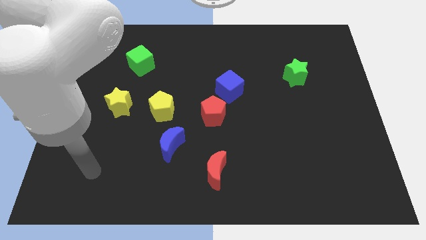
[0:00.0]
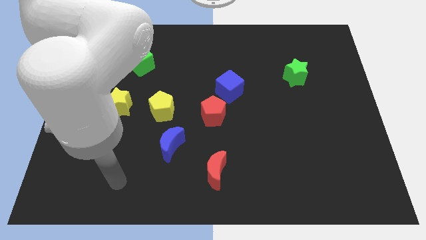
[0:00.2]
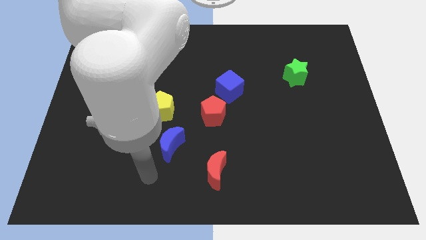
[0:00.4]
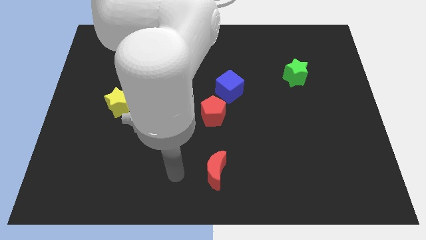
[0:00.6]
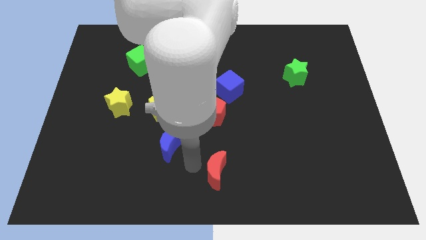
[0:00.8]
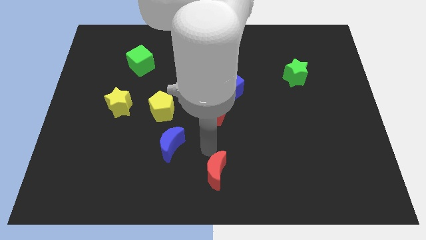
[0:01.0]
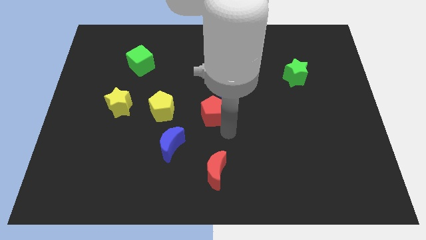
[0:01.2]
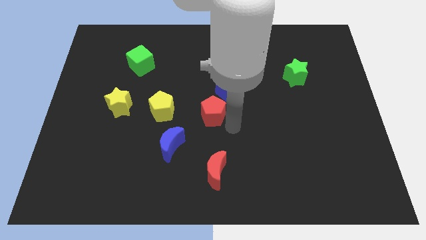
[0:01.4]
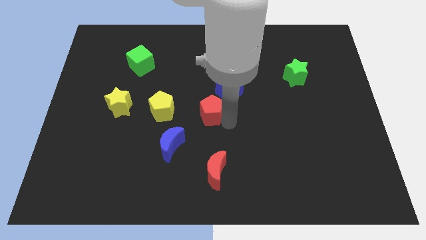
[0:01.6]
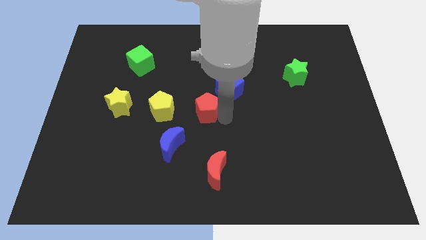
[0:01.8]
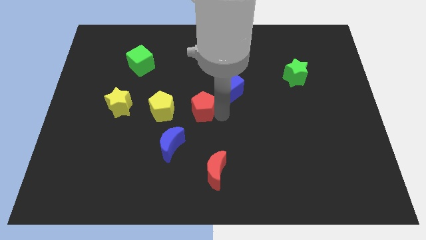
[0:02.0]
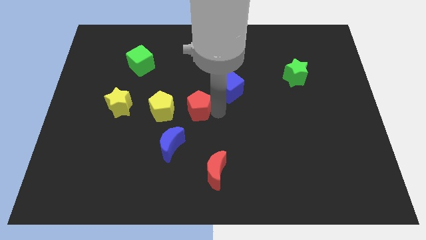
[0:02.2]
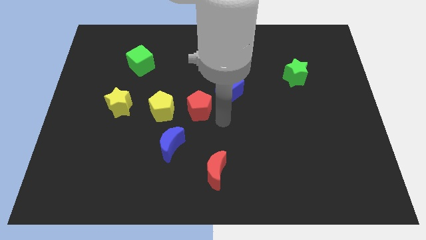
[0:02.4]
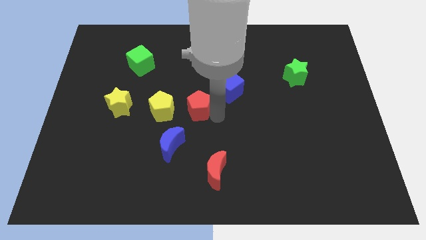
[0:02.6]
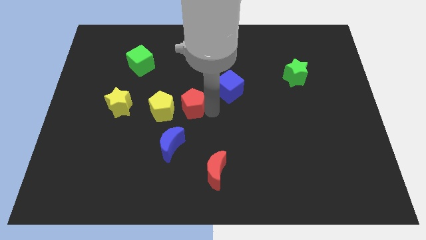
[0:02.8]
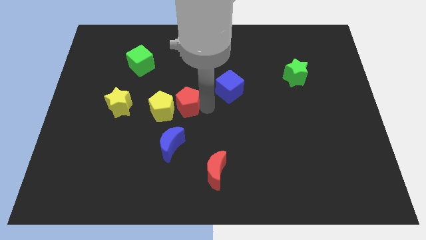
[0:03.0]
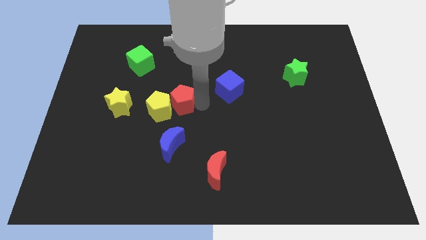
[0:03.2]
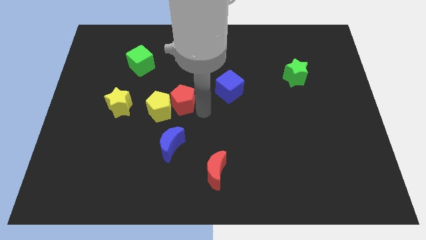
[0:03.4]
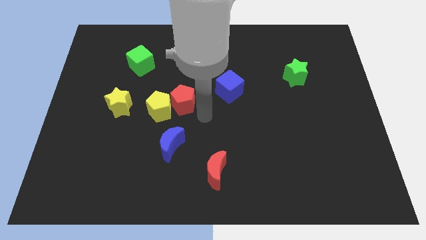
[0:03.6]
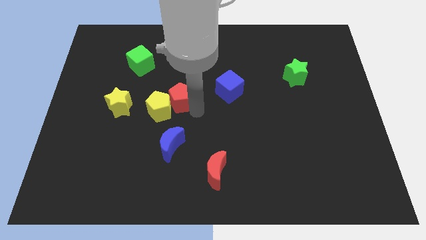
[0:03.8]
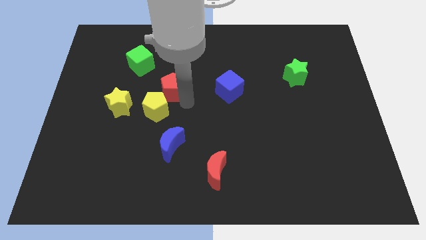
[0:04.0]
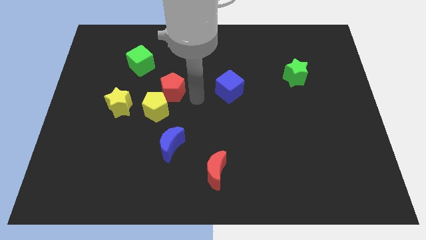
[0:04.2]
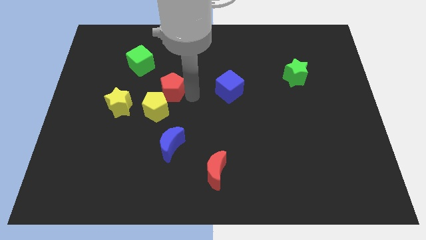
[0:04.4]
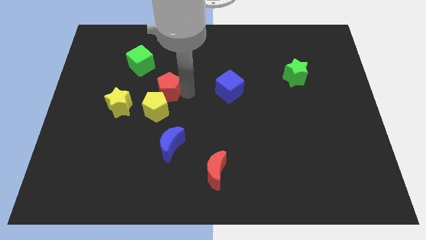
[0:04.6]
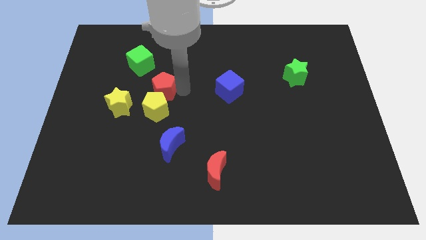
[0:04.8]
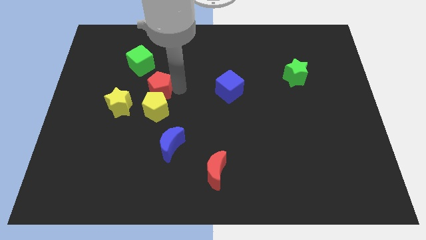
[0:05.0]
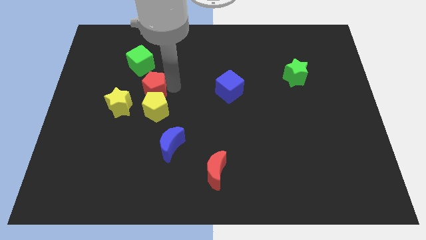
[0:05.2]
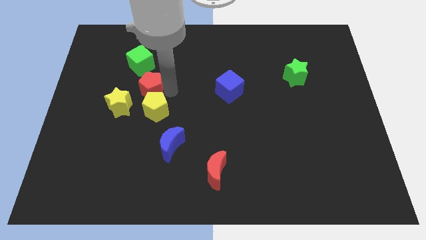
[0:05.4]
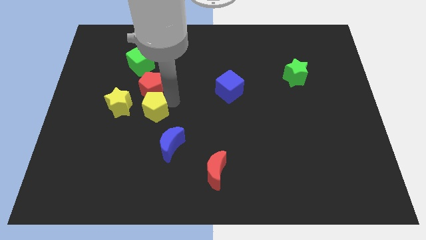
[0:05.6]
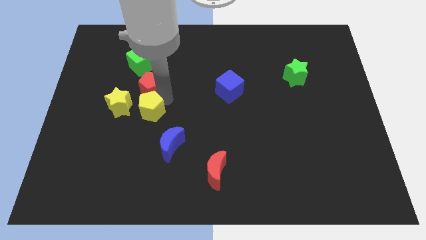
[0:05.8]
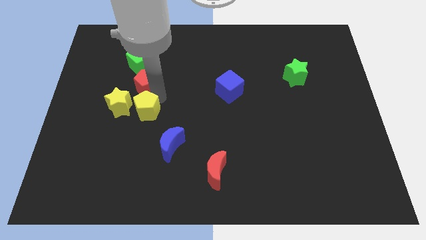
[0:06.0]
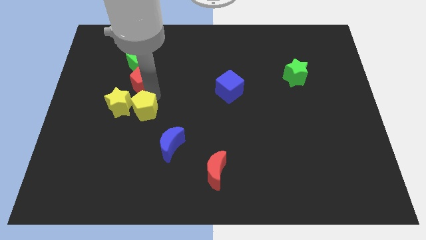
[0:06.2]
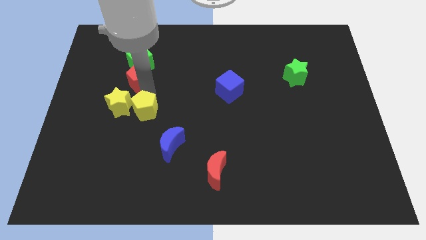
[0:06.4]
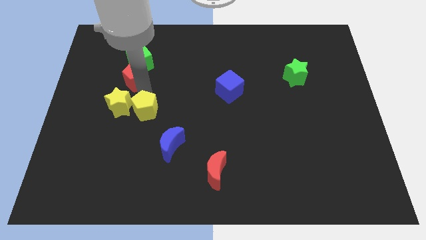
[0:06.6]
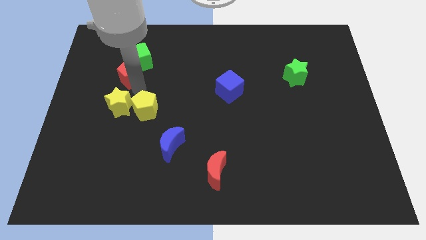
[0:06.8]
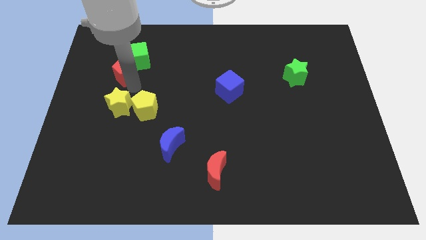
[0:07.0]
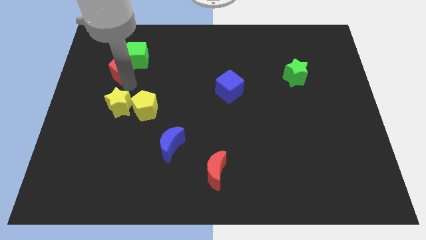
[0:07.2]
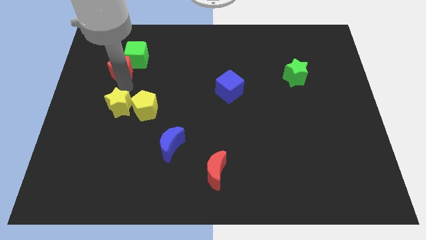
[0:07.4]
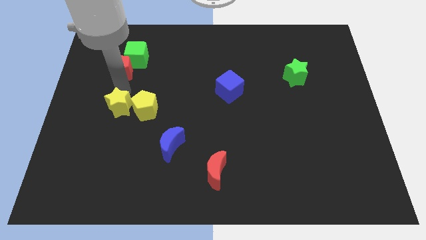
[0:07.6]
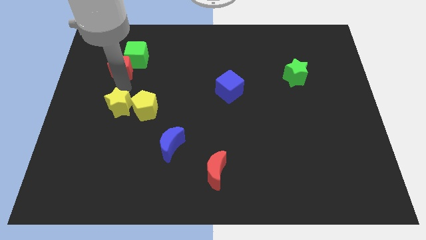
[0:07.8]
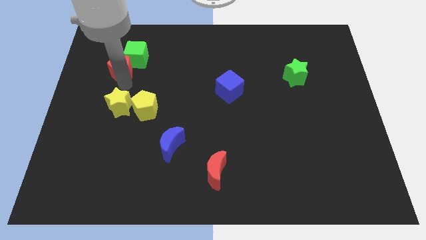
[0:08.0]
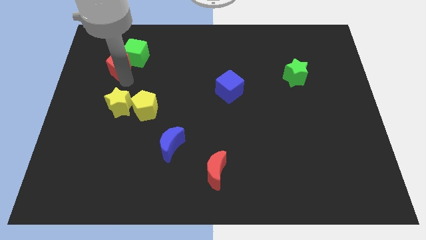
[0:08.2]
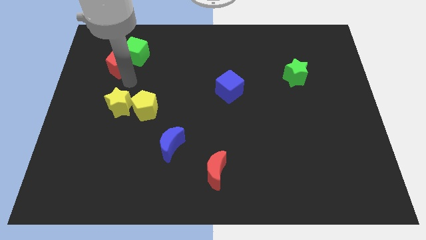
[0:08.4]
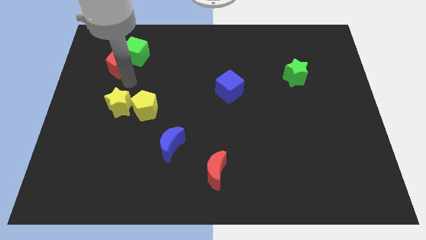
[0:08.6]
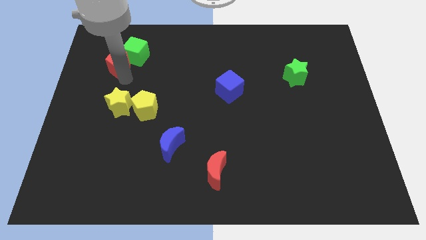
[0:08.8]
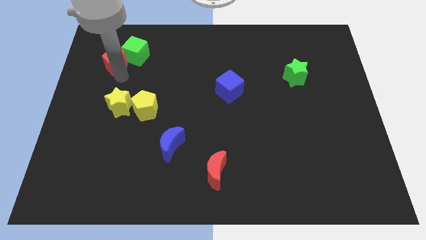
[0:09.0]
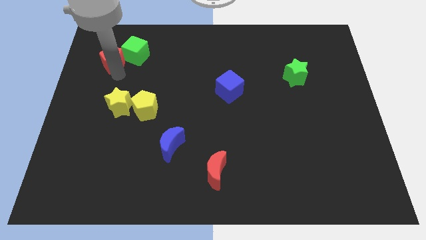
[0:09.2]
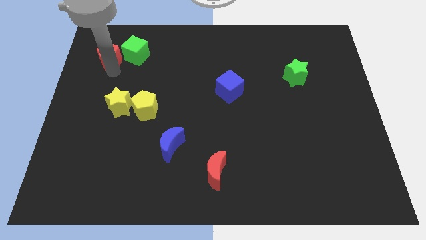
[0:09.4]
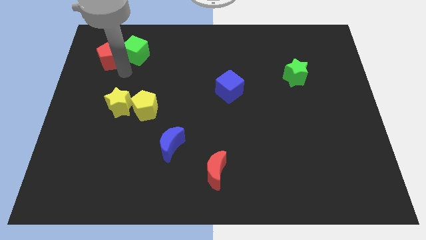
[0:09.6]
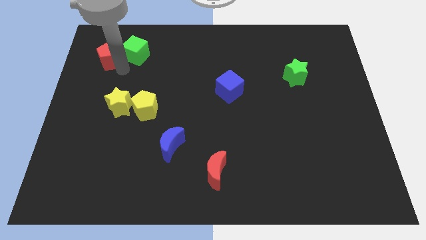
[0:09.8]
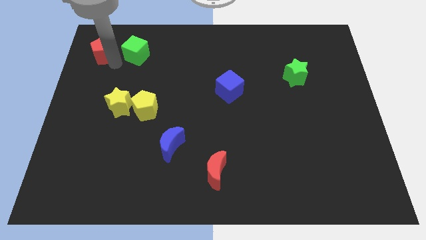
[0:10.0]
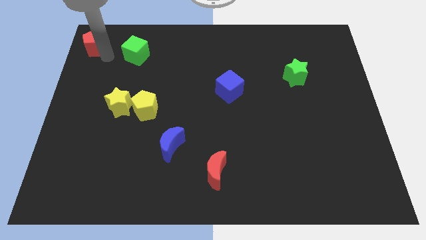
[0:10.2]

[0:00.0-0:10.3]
move the red pentagon to the top left of the board

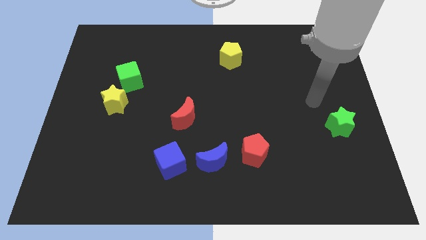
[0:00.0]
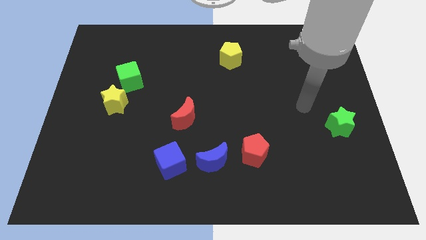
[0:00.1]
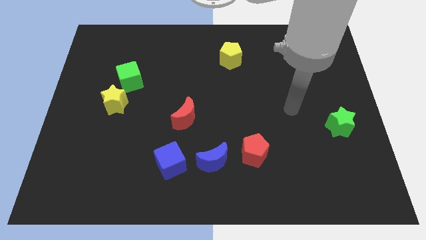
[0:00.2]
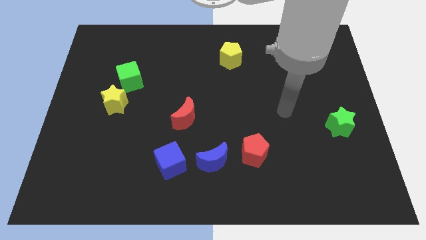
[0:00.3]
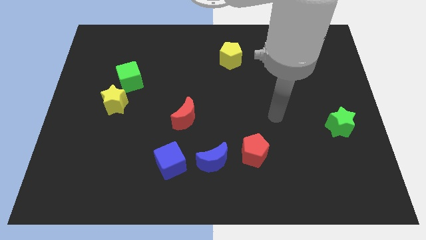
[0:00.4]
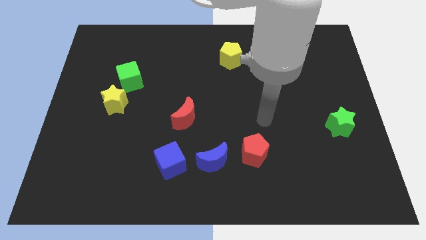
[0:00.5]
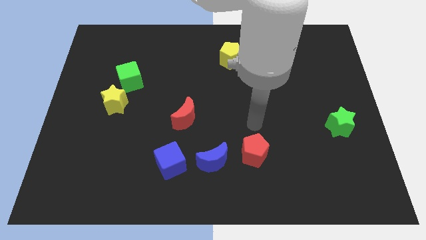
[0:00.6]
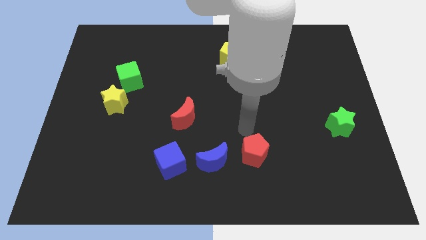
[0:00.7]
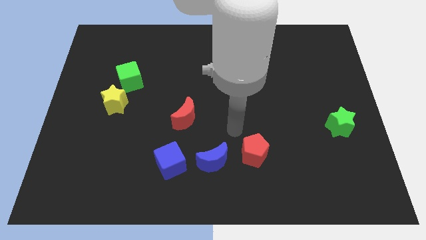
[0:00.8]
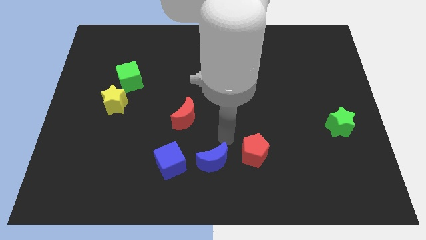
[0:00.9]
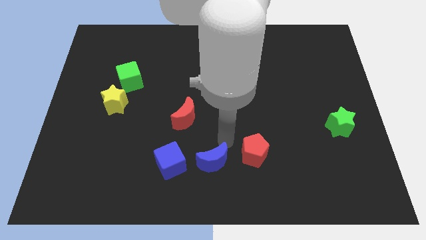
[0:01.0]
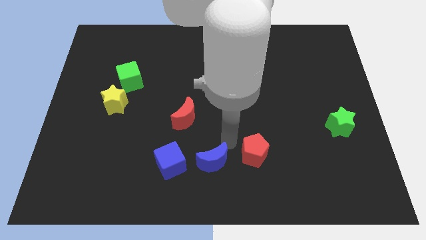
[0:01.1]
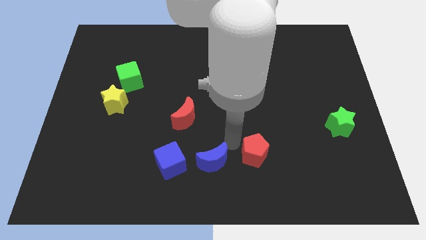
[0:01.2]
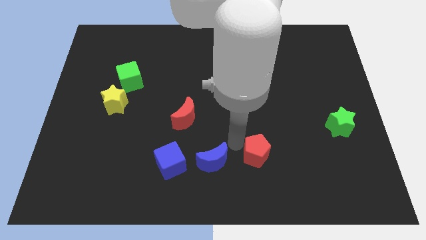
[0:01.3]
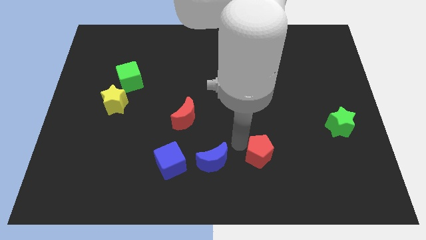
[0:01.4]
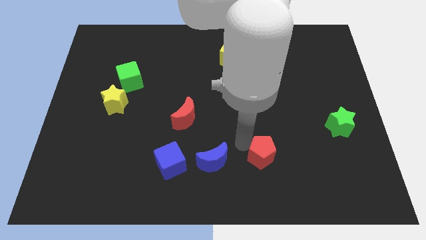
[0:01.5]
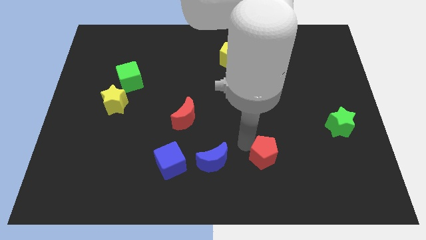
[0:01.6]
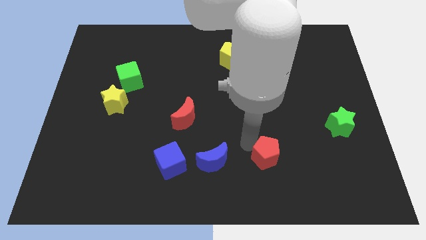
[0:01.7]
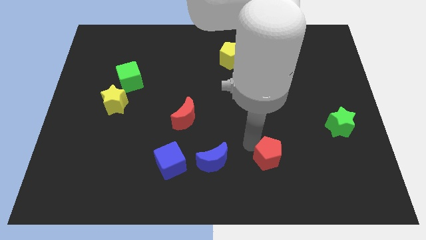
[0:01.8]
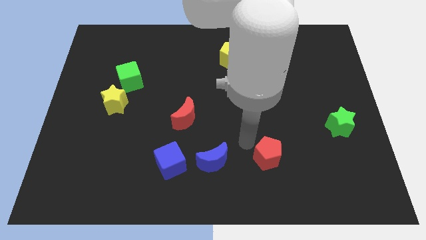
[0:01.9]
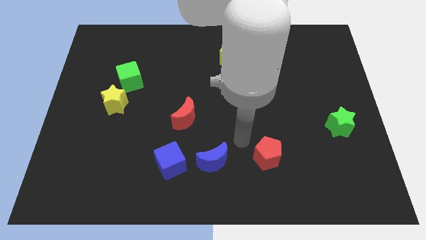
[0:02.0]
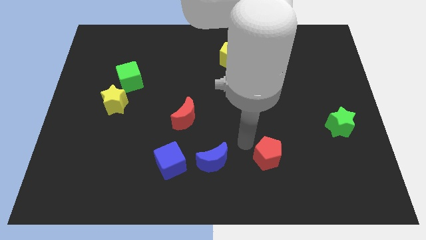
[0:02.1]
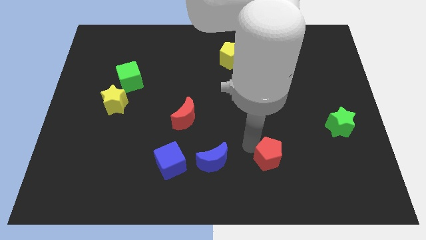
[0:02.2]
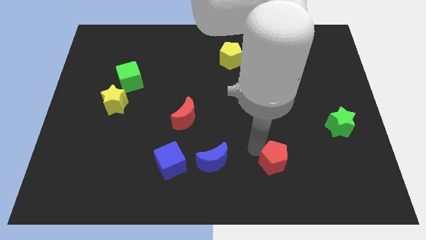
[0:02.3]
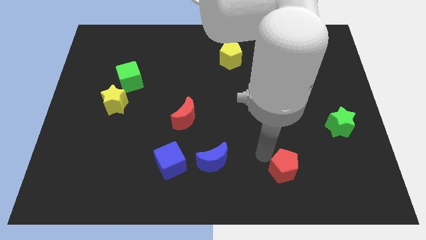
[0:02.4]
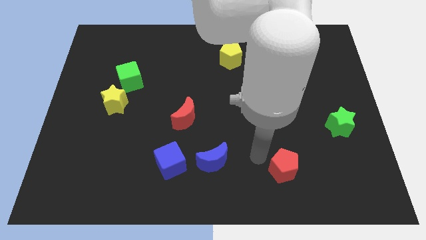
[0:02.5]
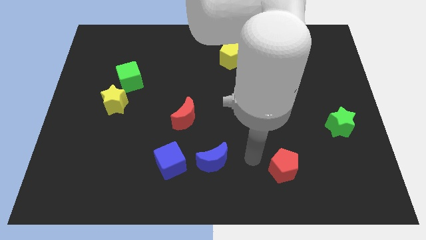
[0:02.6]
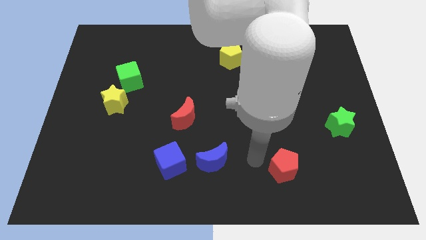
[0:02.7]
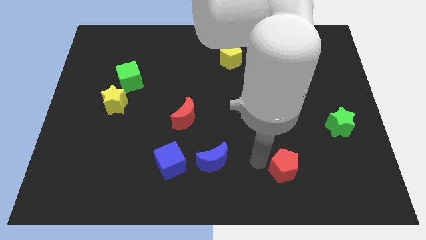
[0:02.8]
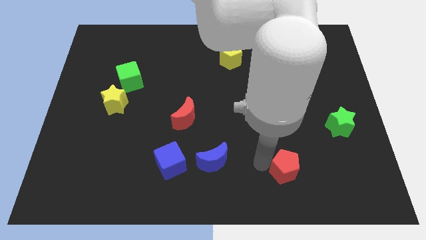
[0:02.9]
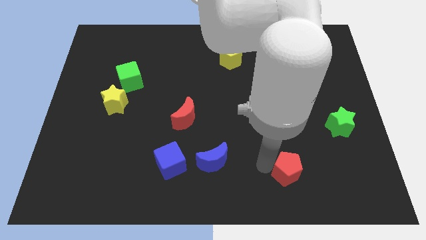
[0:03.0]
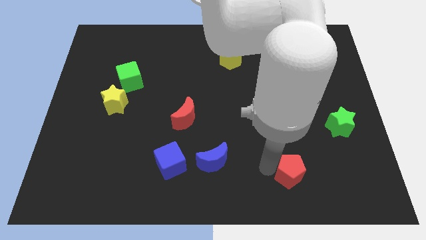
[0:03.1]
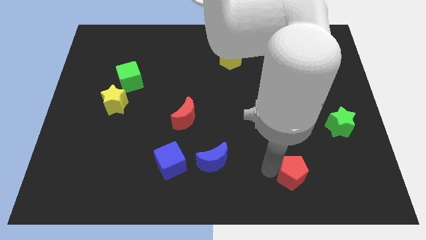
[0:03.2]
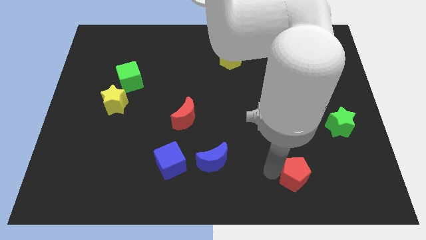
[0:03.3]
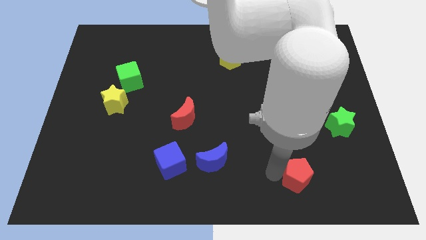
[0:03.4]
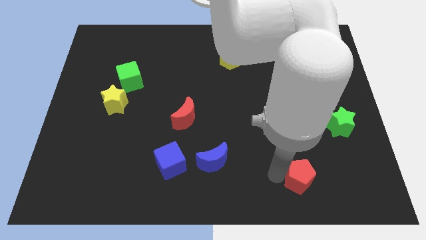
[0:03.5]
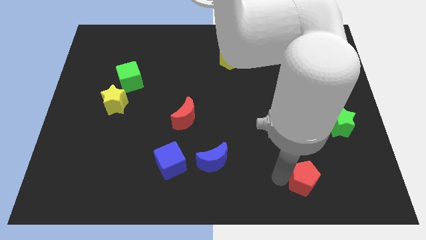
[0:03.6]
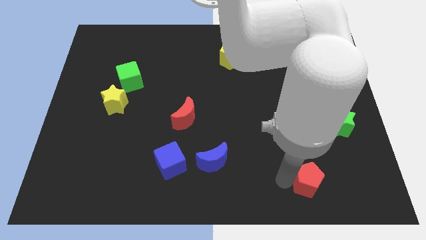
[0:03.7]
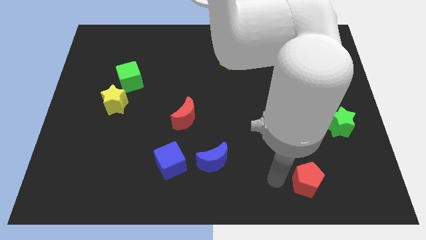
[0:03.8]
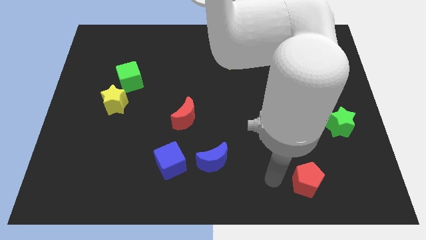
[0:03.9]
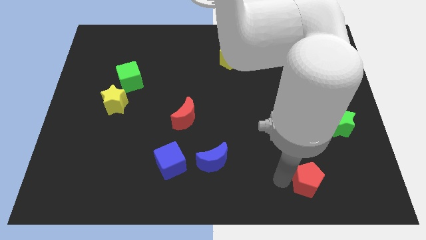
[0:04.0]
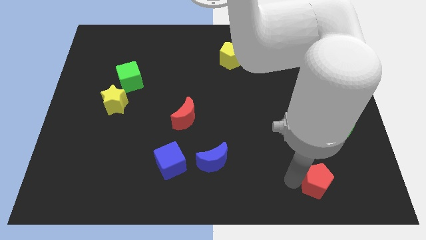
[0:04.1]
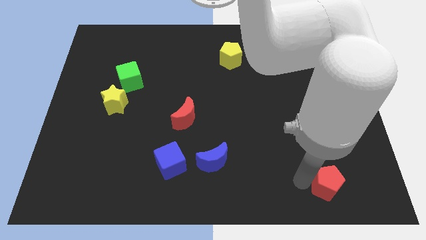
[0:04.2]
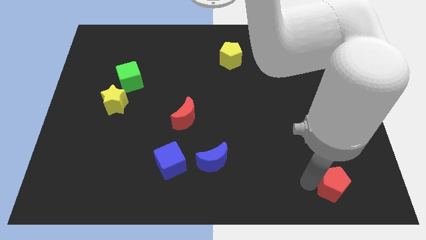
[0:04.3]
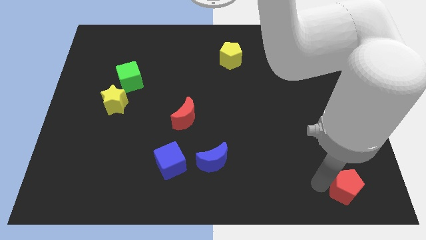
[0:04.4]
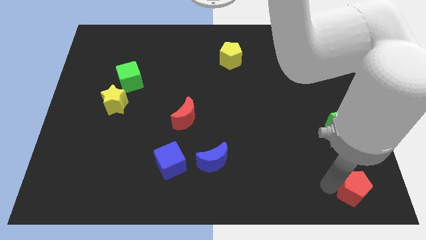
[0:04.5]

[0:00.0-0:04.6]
slide the red pentagon to the bottom right corner
